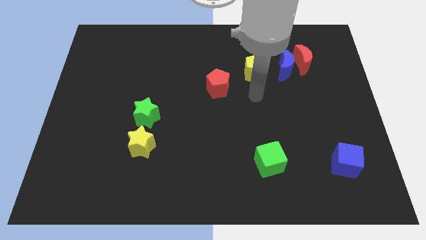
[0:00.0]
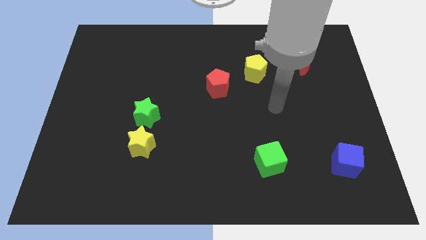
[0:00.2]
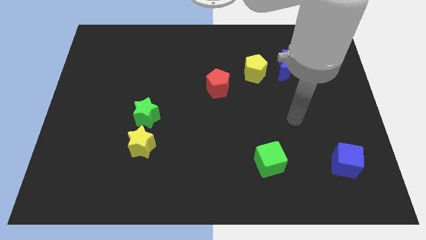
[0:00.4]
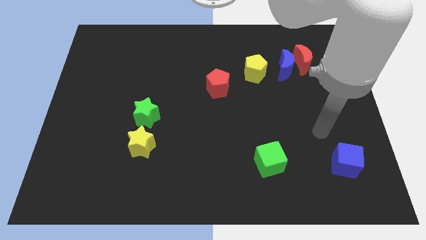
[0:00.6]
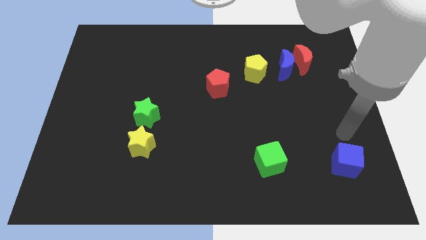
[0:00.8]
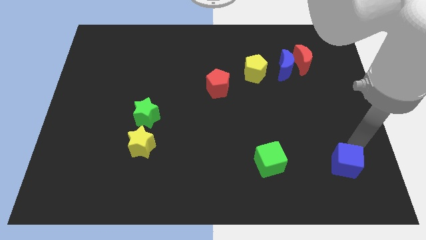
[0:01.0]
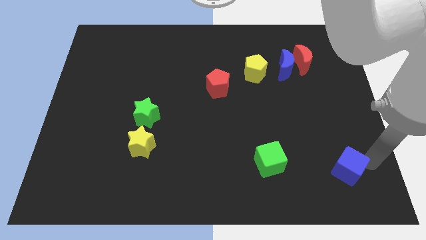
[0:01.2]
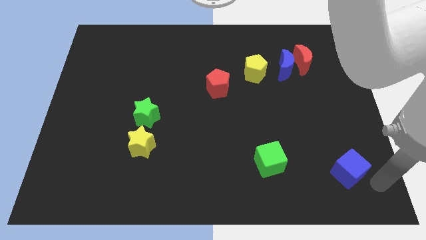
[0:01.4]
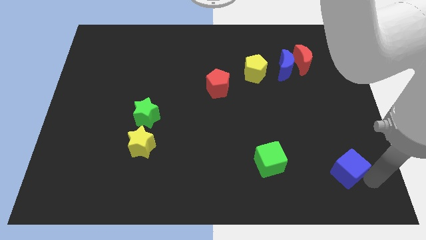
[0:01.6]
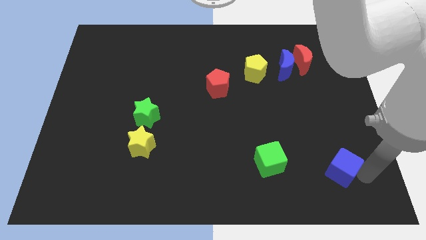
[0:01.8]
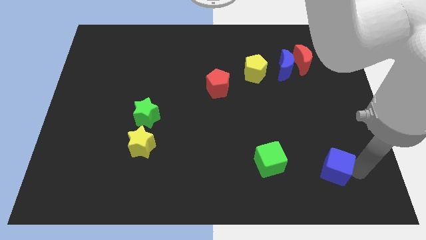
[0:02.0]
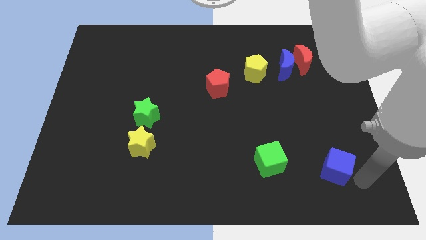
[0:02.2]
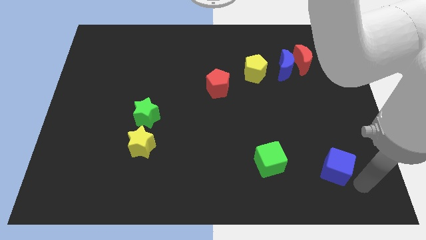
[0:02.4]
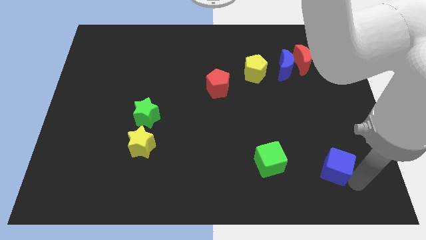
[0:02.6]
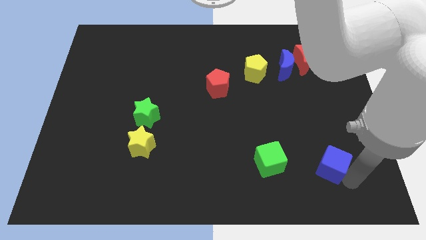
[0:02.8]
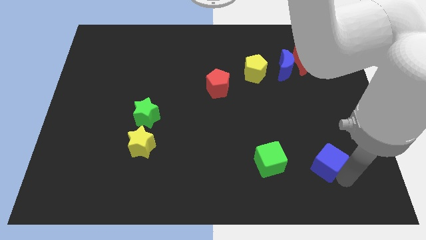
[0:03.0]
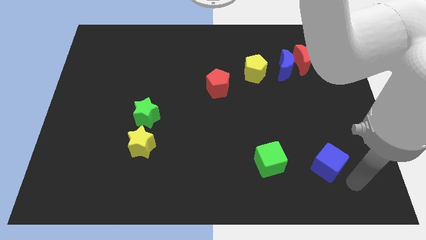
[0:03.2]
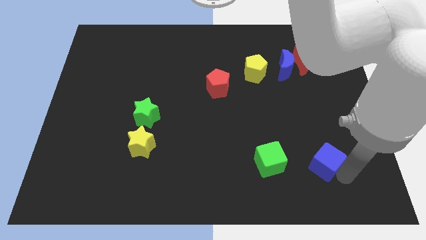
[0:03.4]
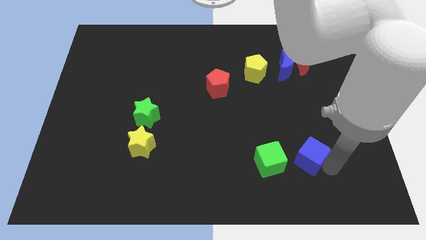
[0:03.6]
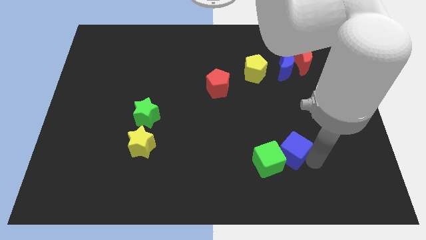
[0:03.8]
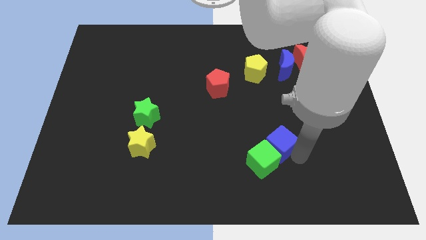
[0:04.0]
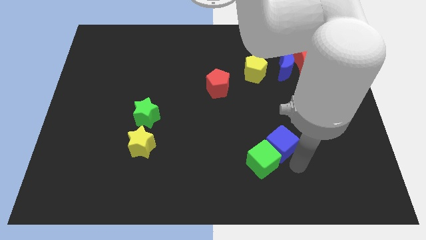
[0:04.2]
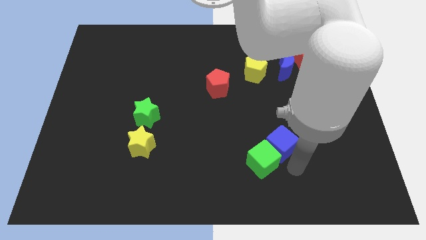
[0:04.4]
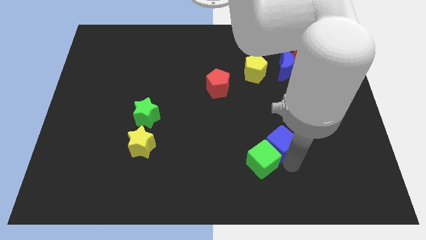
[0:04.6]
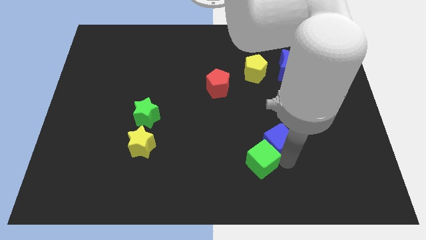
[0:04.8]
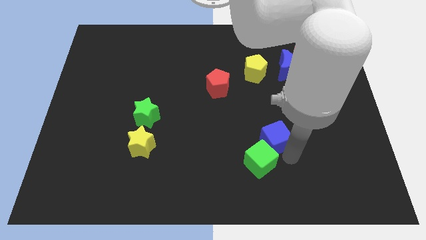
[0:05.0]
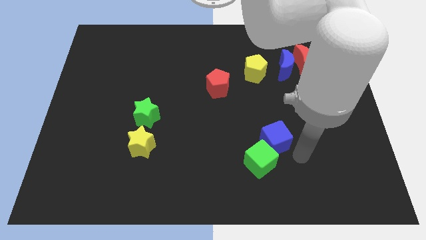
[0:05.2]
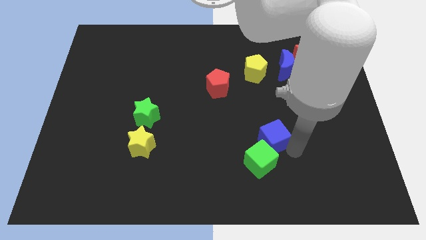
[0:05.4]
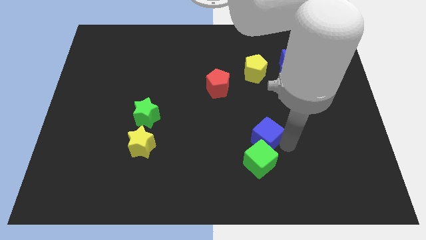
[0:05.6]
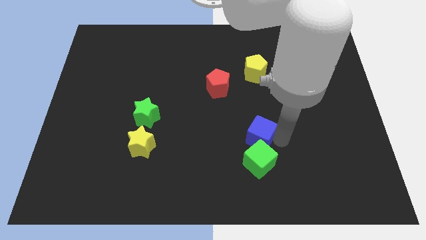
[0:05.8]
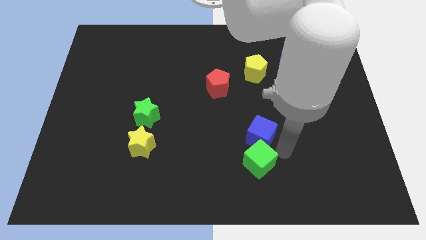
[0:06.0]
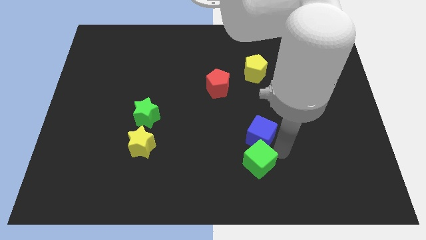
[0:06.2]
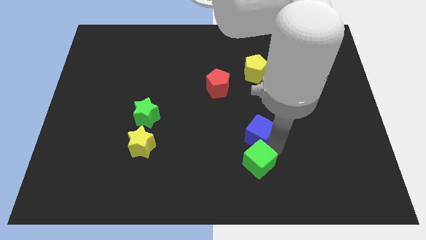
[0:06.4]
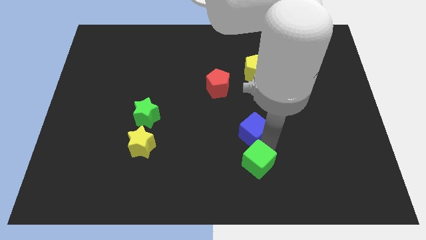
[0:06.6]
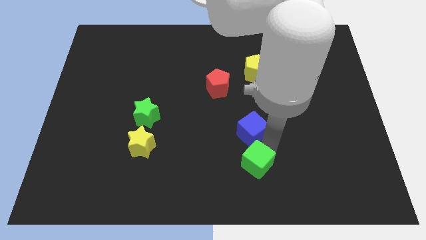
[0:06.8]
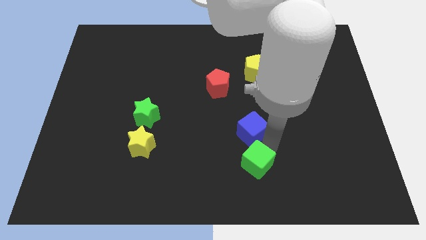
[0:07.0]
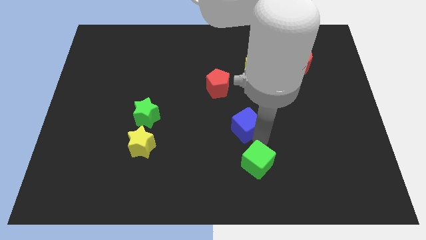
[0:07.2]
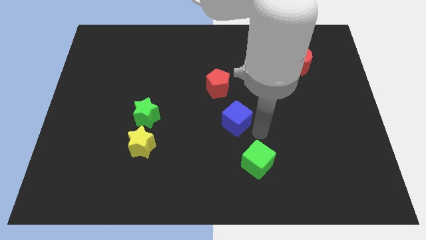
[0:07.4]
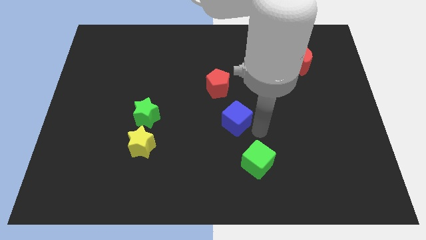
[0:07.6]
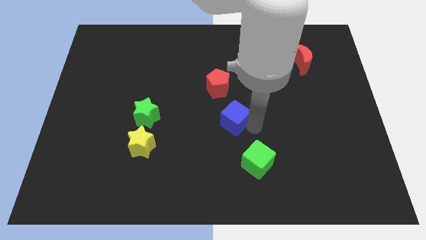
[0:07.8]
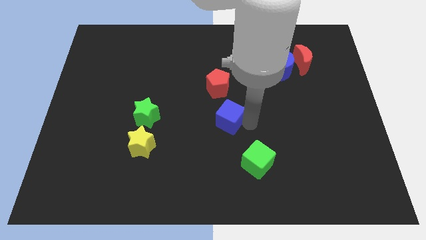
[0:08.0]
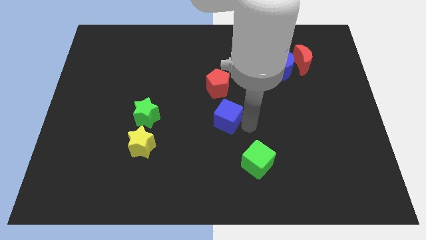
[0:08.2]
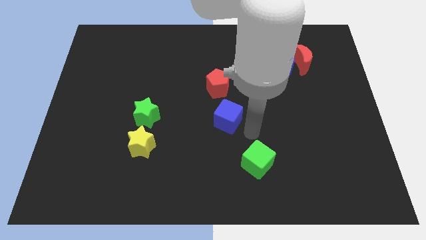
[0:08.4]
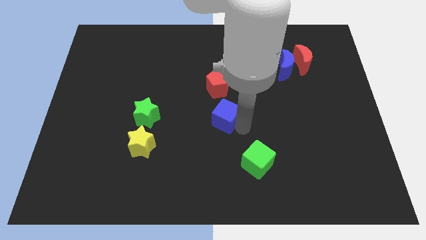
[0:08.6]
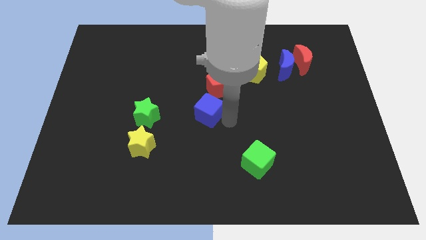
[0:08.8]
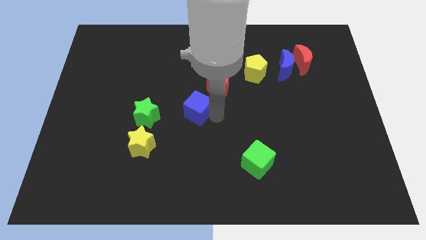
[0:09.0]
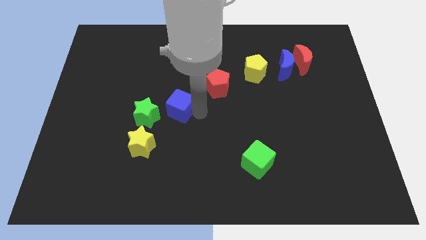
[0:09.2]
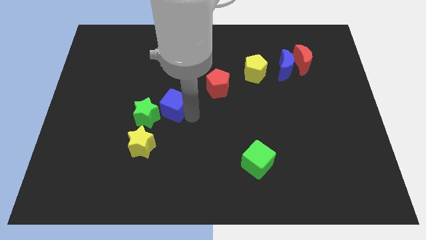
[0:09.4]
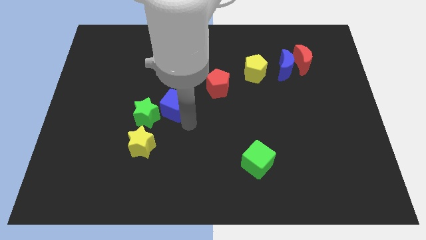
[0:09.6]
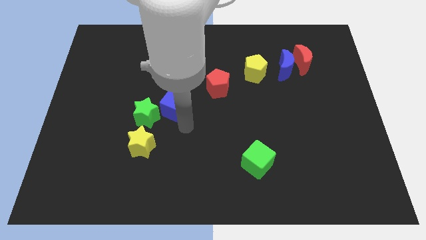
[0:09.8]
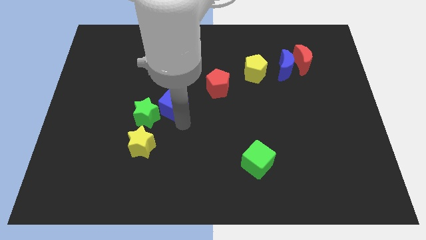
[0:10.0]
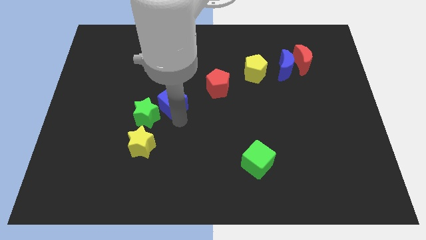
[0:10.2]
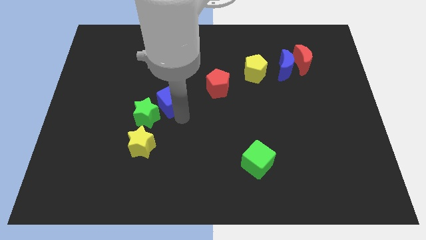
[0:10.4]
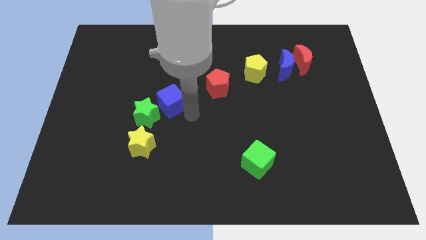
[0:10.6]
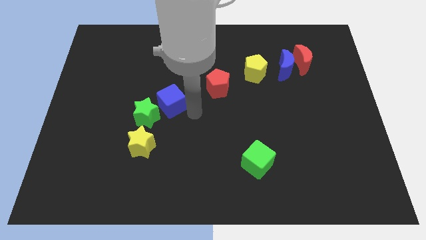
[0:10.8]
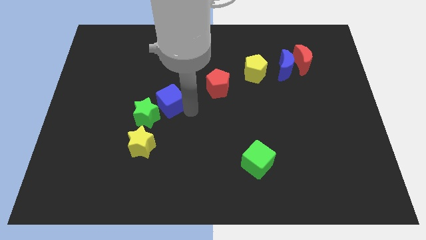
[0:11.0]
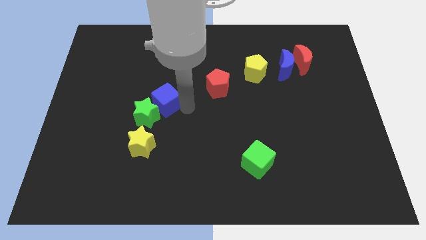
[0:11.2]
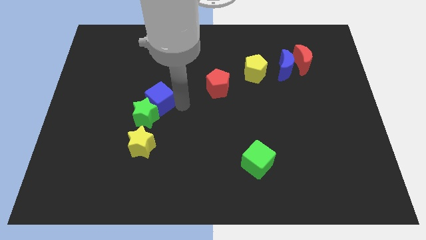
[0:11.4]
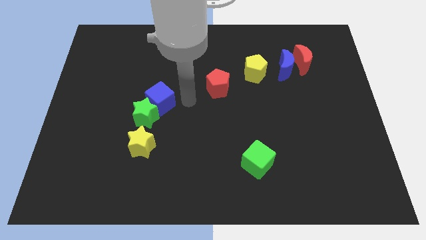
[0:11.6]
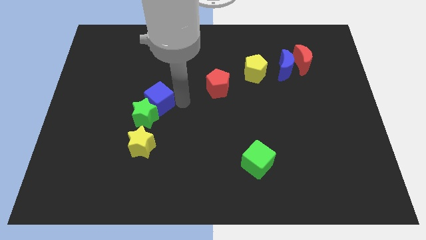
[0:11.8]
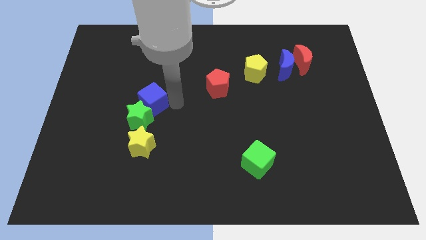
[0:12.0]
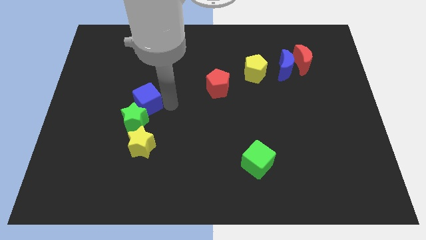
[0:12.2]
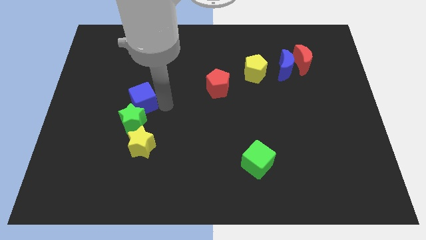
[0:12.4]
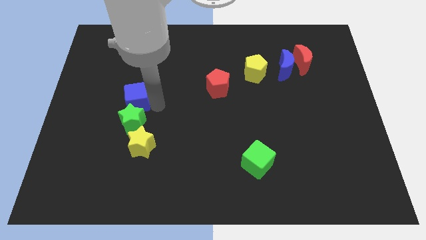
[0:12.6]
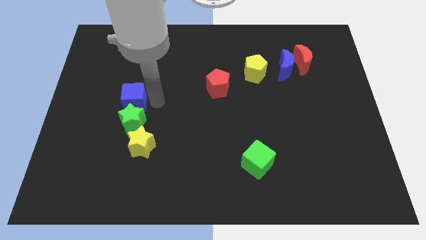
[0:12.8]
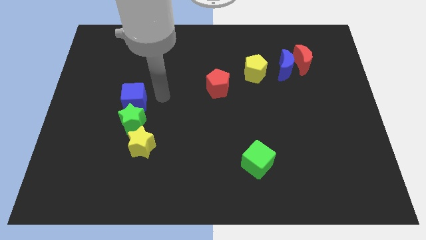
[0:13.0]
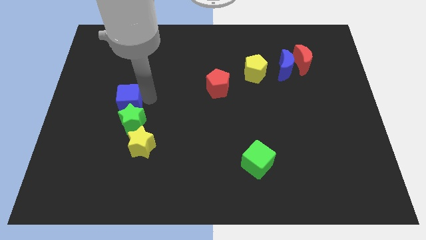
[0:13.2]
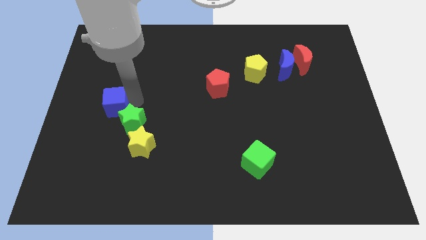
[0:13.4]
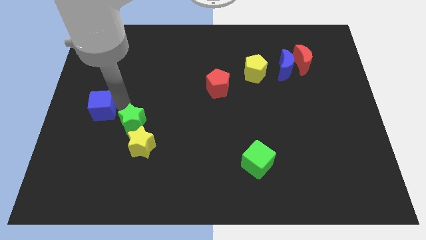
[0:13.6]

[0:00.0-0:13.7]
push the blue cube to the left side
